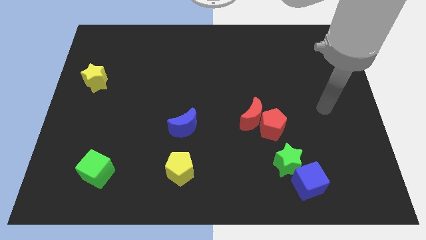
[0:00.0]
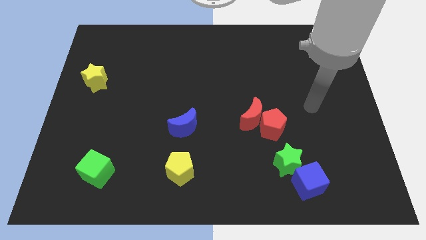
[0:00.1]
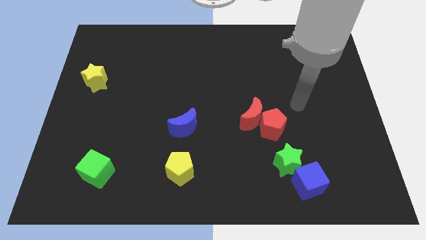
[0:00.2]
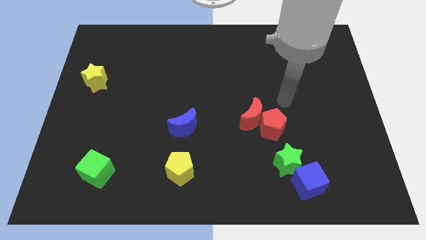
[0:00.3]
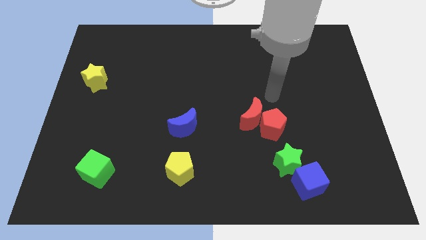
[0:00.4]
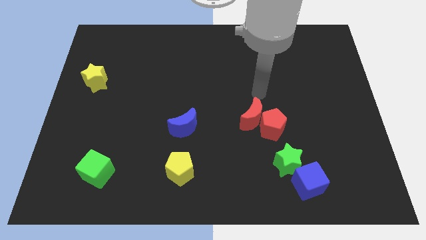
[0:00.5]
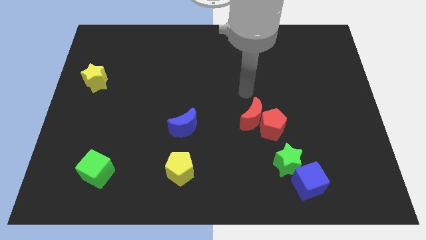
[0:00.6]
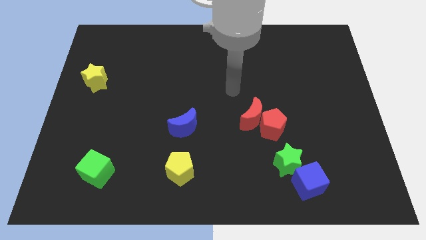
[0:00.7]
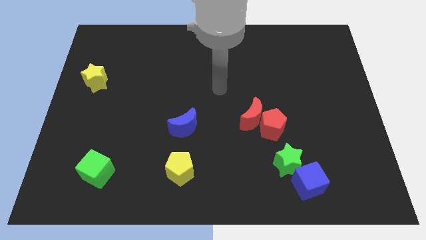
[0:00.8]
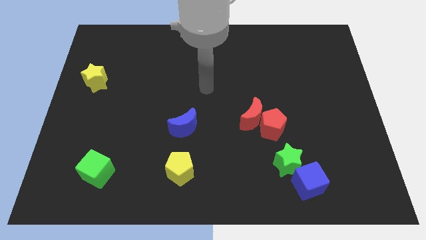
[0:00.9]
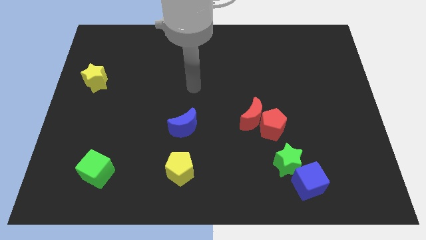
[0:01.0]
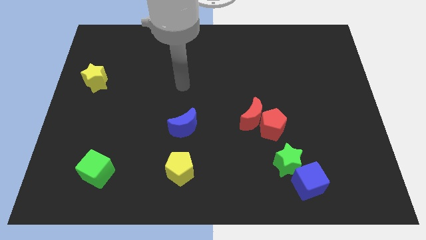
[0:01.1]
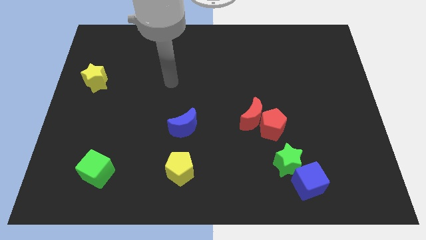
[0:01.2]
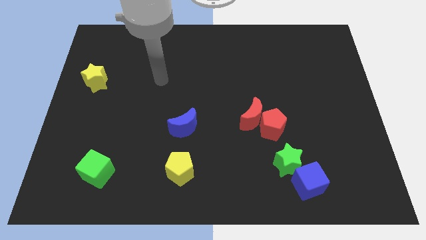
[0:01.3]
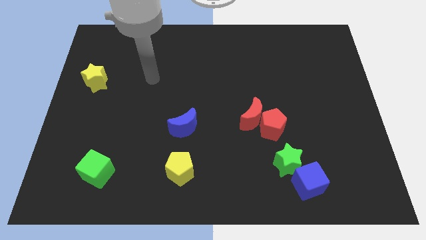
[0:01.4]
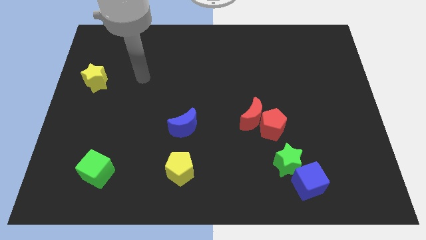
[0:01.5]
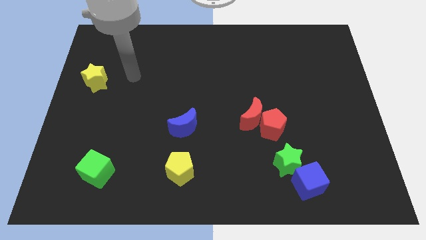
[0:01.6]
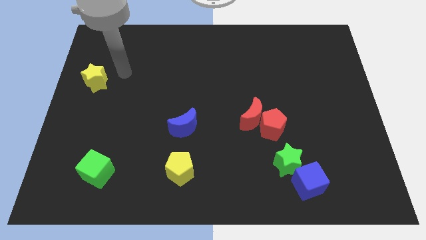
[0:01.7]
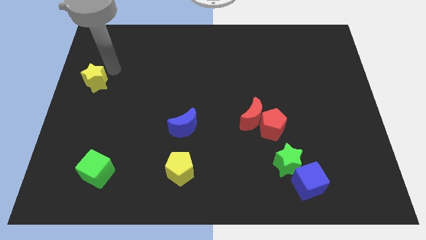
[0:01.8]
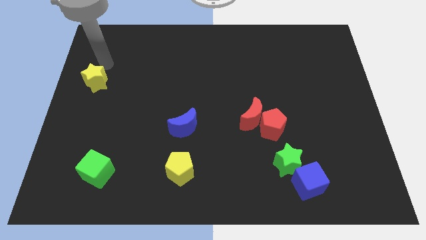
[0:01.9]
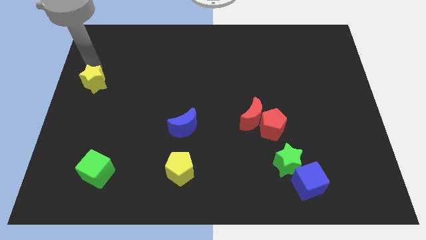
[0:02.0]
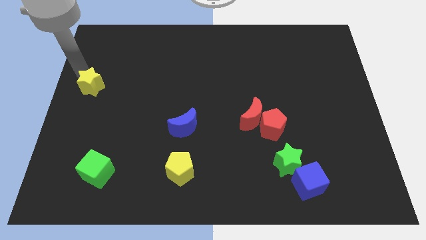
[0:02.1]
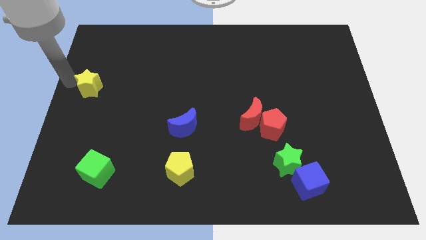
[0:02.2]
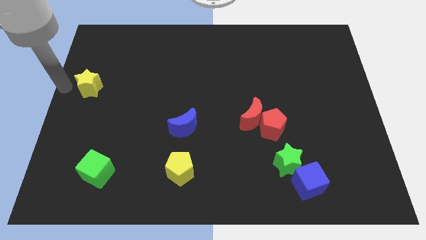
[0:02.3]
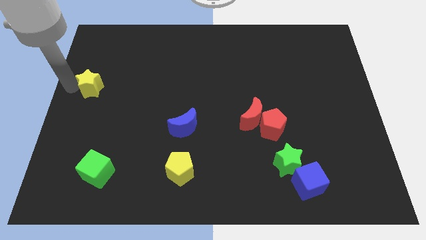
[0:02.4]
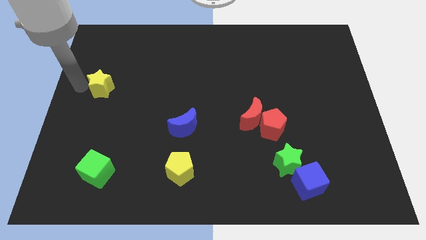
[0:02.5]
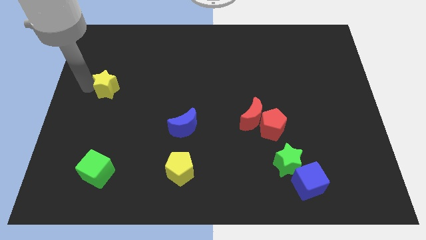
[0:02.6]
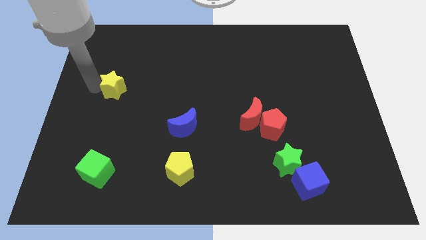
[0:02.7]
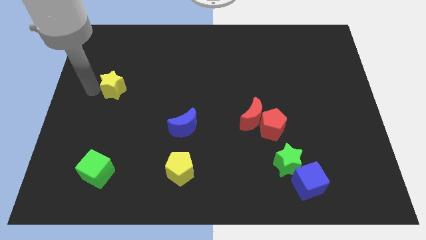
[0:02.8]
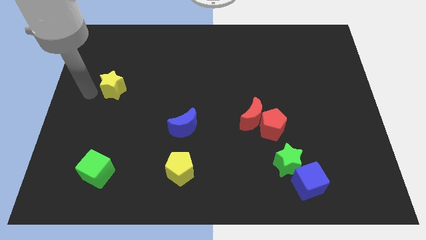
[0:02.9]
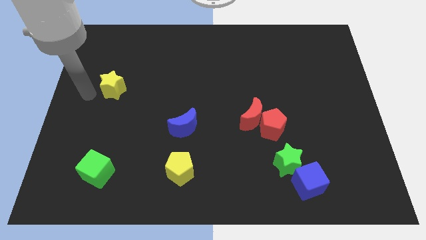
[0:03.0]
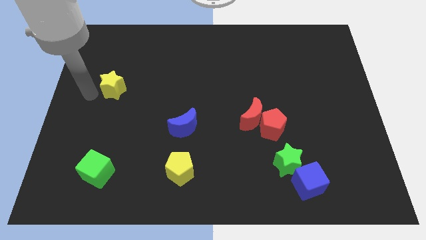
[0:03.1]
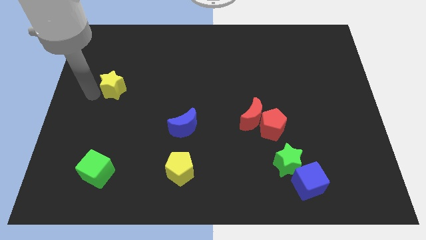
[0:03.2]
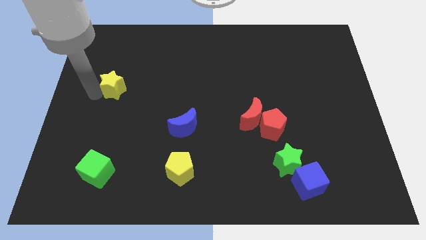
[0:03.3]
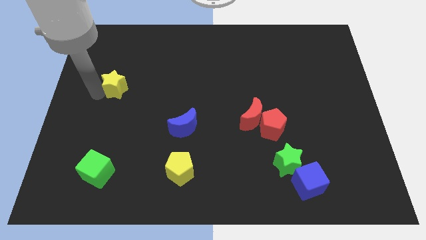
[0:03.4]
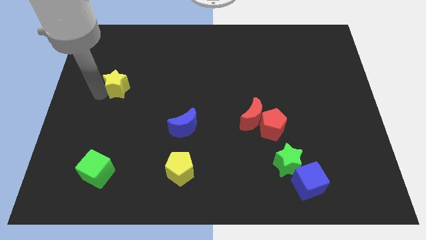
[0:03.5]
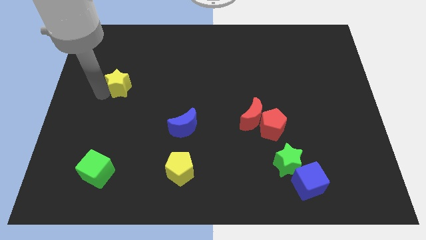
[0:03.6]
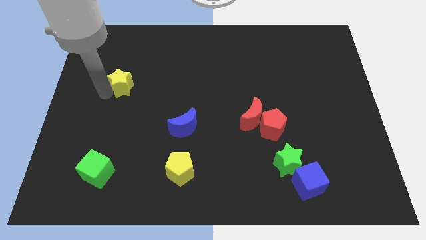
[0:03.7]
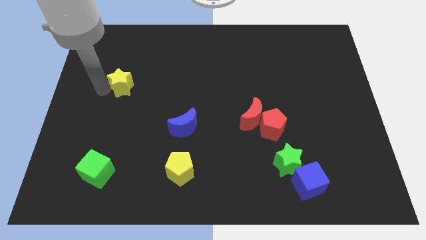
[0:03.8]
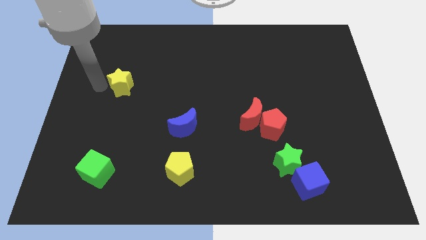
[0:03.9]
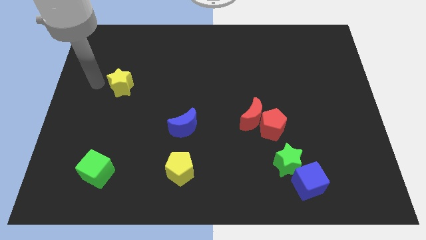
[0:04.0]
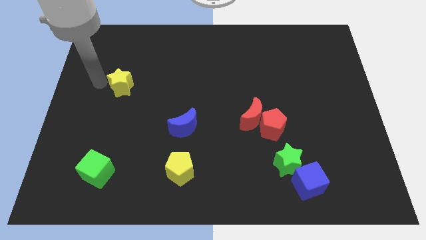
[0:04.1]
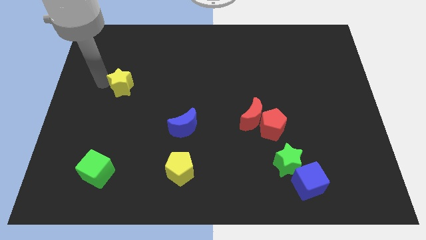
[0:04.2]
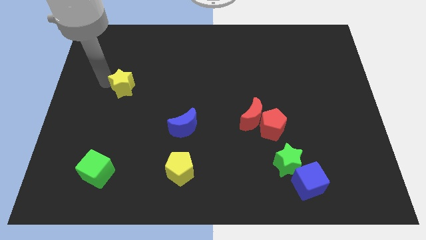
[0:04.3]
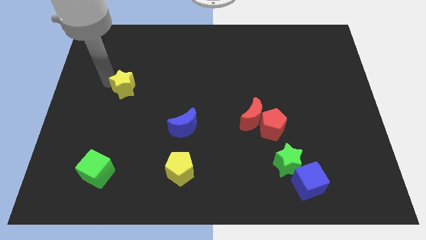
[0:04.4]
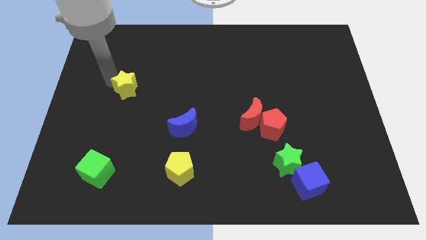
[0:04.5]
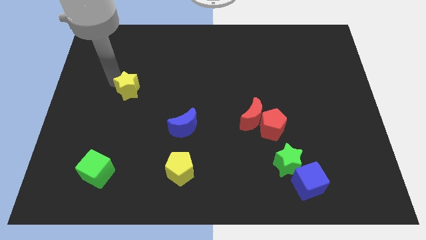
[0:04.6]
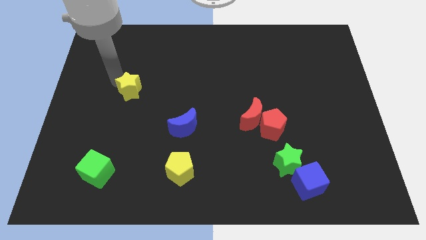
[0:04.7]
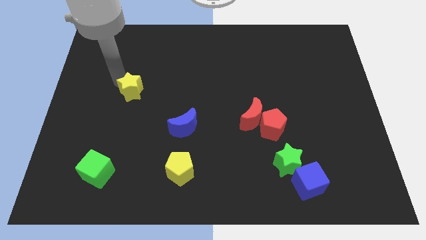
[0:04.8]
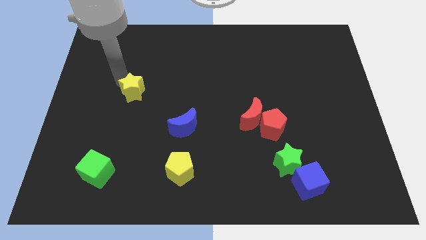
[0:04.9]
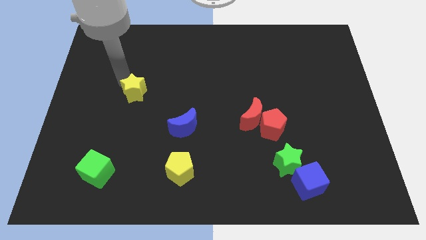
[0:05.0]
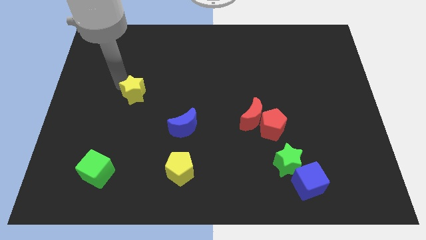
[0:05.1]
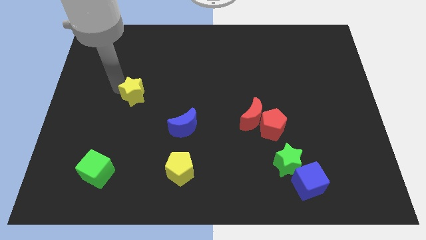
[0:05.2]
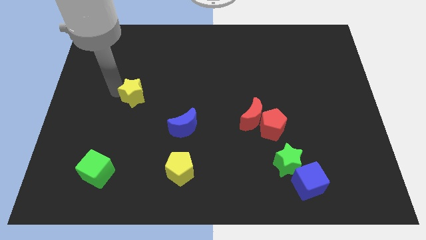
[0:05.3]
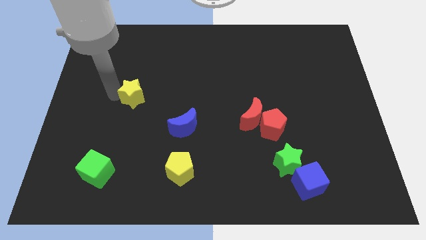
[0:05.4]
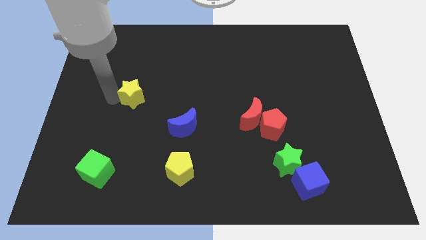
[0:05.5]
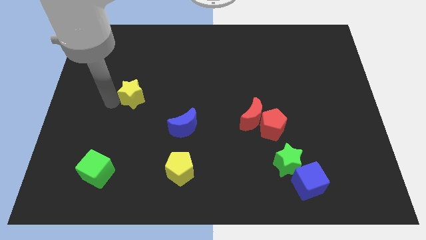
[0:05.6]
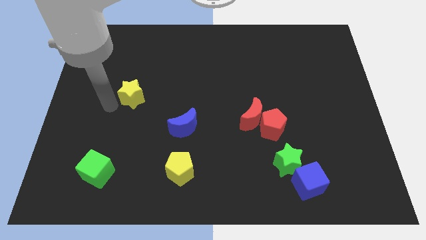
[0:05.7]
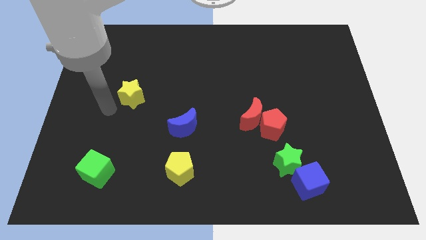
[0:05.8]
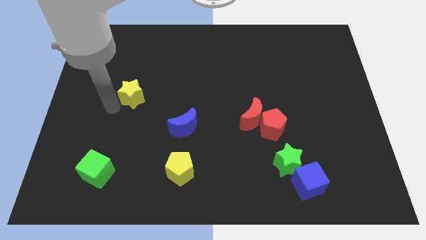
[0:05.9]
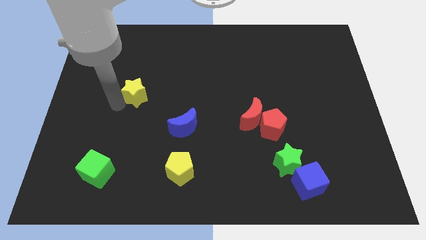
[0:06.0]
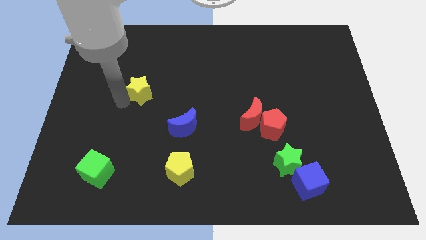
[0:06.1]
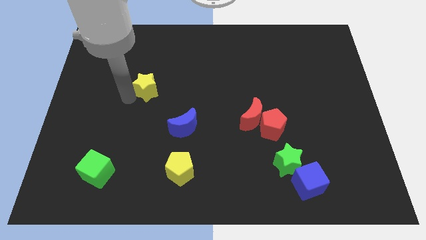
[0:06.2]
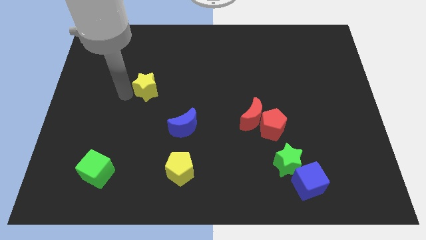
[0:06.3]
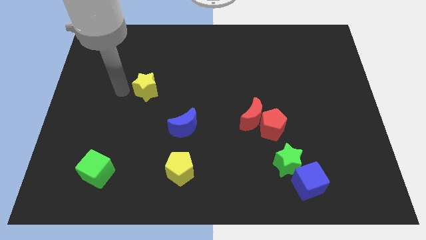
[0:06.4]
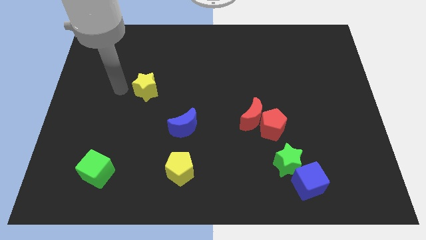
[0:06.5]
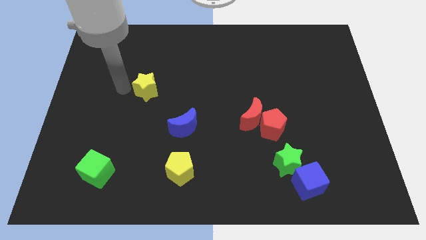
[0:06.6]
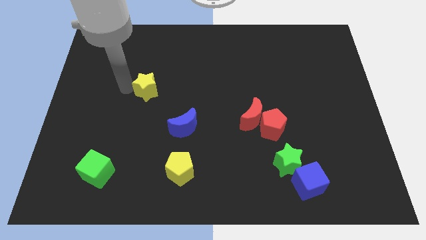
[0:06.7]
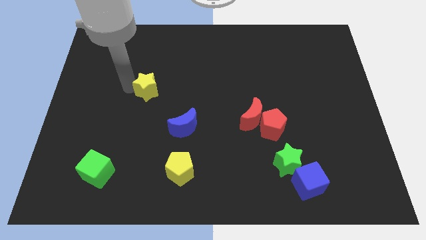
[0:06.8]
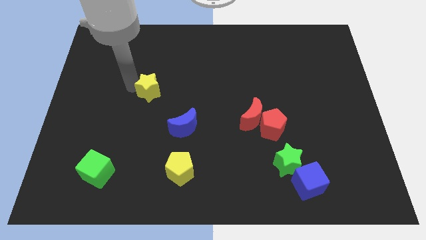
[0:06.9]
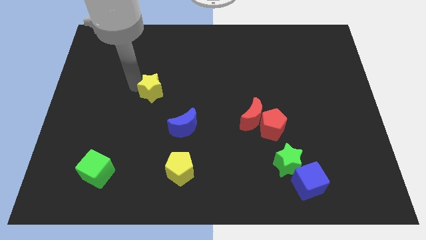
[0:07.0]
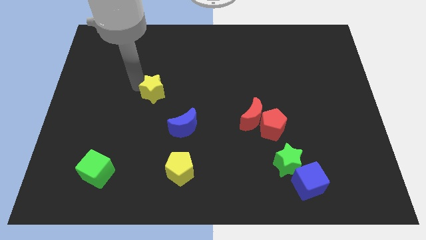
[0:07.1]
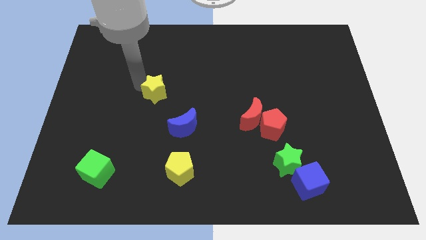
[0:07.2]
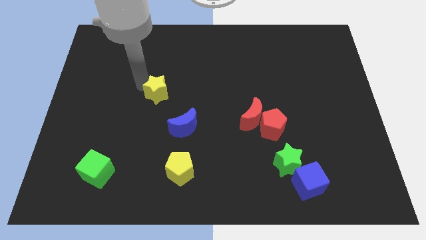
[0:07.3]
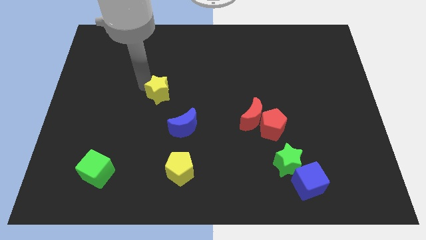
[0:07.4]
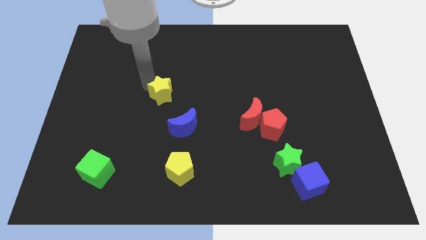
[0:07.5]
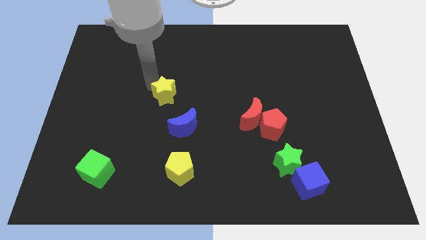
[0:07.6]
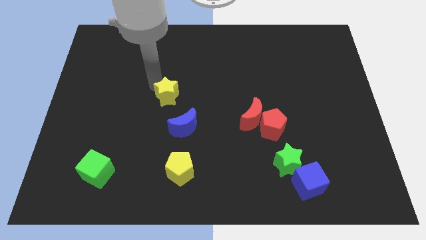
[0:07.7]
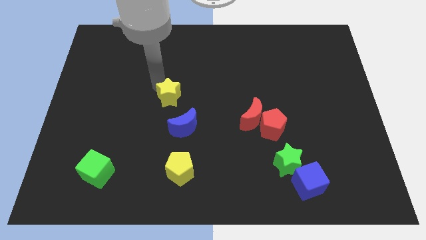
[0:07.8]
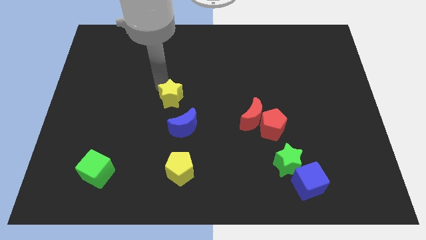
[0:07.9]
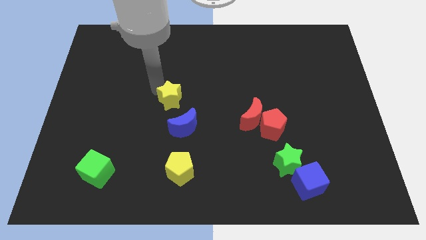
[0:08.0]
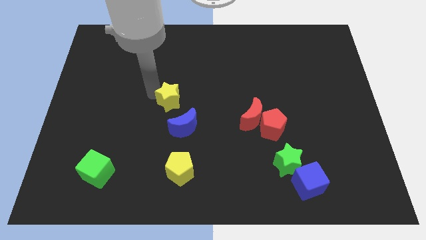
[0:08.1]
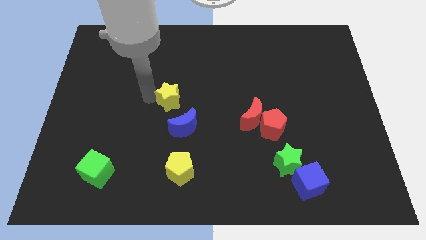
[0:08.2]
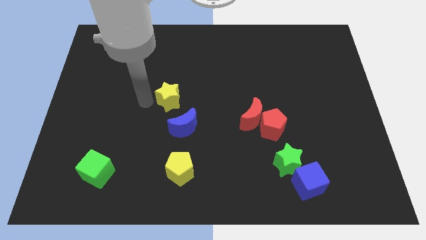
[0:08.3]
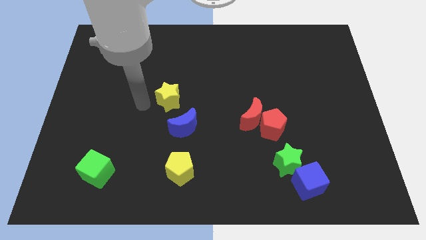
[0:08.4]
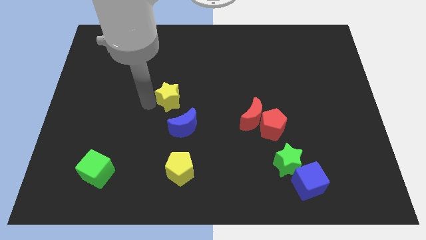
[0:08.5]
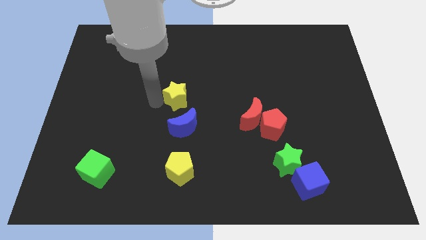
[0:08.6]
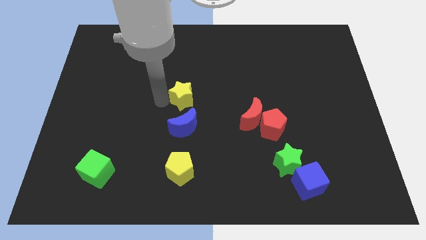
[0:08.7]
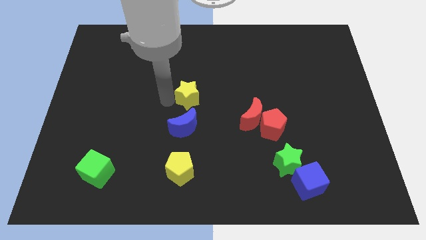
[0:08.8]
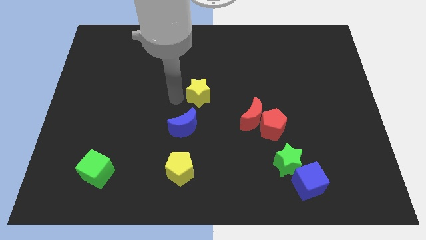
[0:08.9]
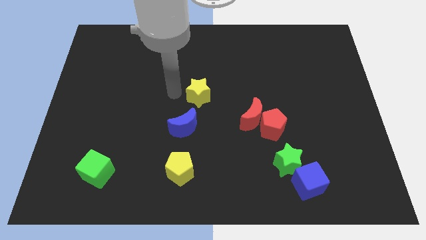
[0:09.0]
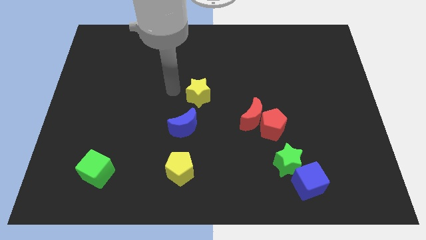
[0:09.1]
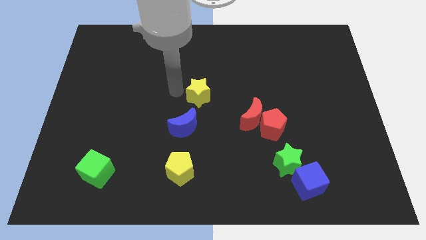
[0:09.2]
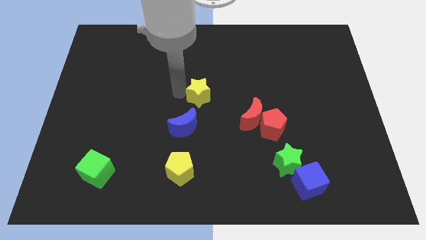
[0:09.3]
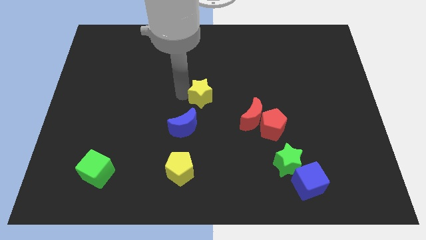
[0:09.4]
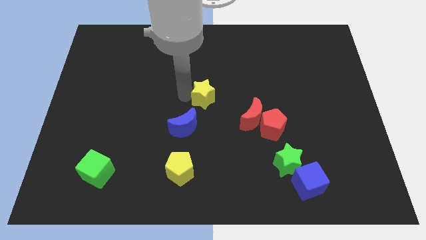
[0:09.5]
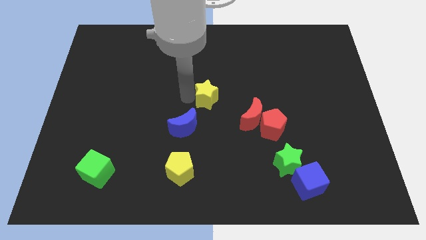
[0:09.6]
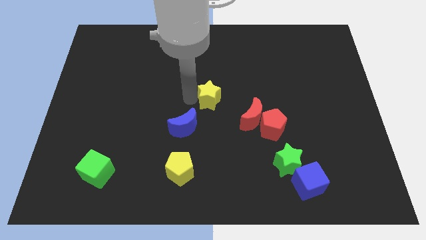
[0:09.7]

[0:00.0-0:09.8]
slide the yellow star to the top left side of the red moon
